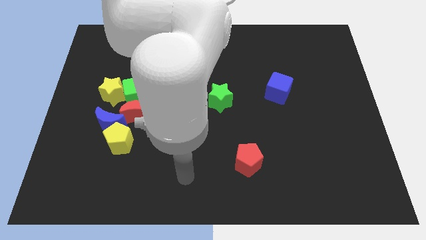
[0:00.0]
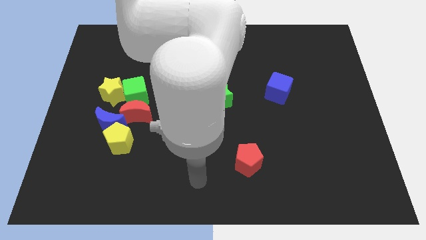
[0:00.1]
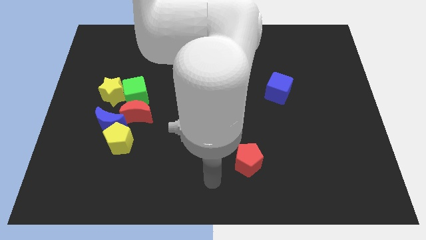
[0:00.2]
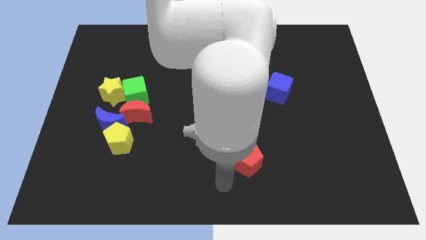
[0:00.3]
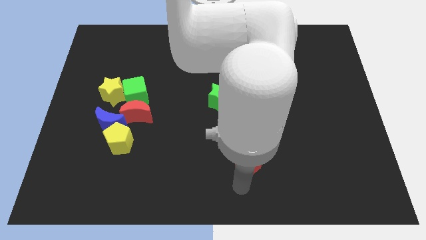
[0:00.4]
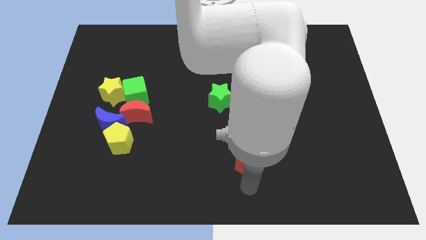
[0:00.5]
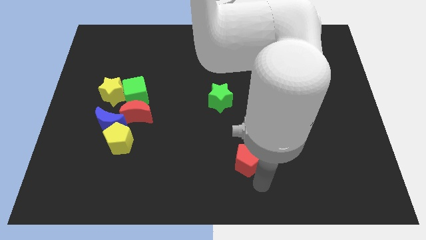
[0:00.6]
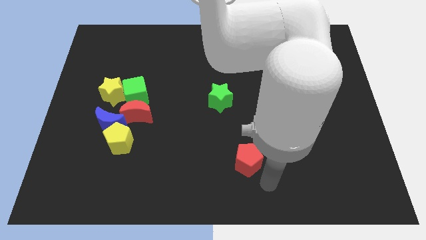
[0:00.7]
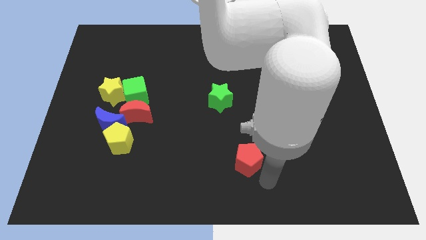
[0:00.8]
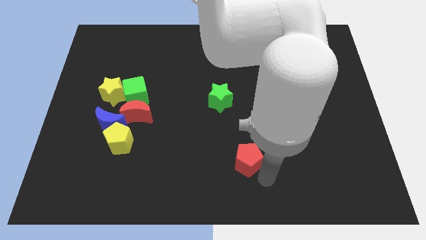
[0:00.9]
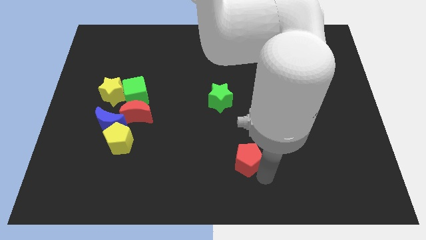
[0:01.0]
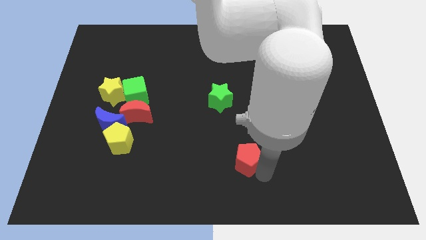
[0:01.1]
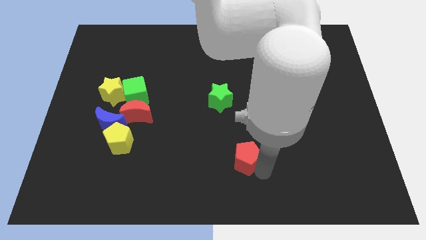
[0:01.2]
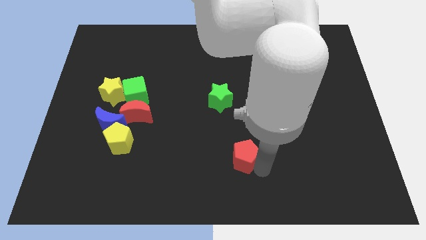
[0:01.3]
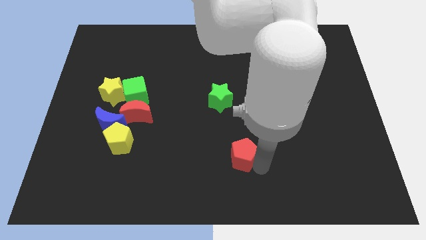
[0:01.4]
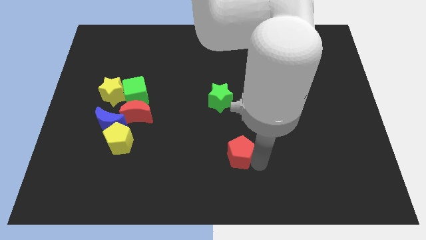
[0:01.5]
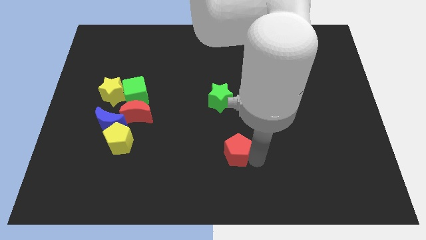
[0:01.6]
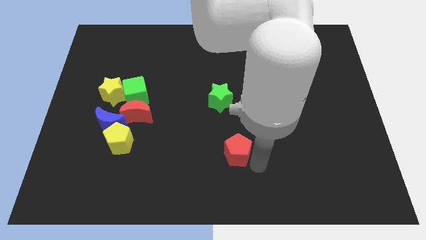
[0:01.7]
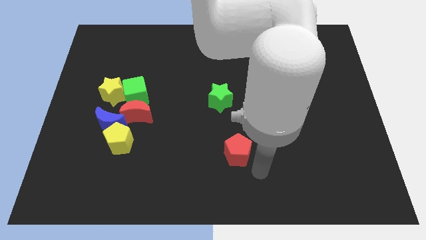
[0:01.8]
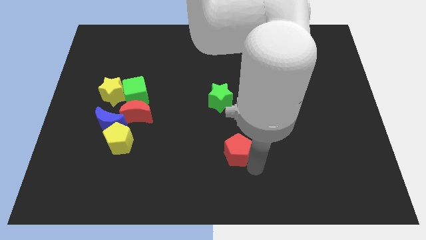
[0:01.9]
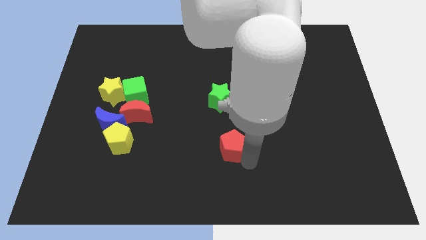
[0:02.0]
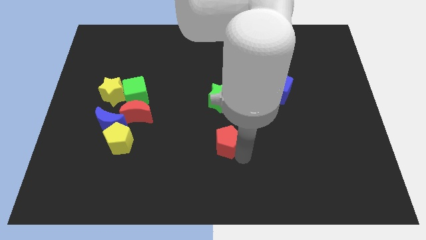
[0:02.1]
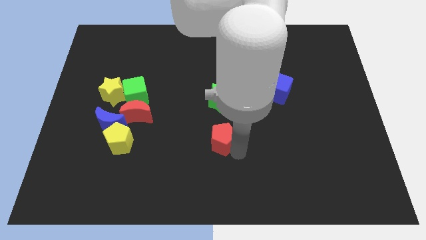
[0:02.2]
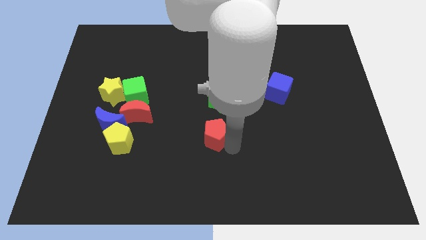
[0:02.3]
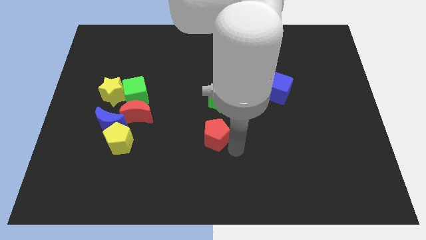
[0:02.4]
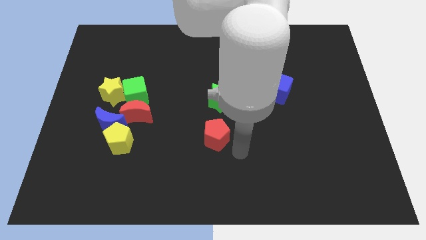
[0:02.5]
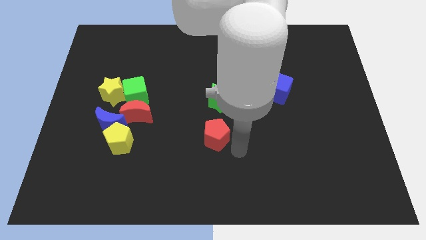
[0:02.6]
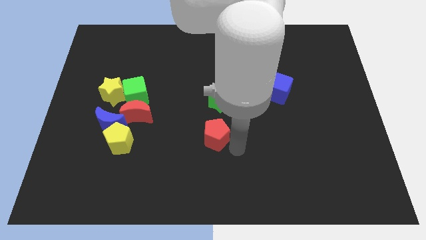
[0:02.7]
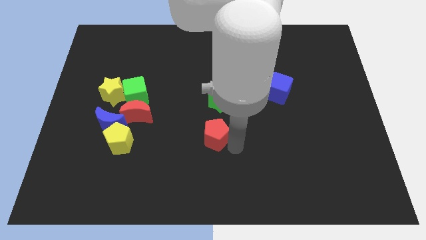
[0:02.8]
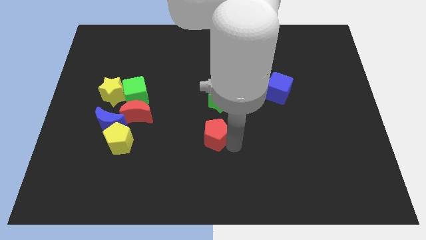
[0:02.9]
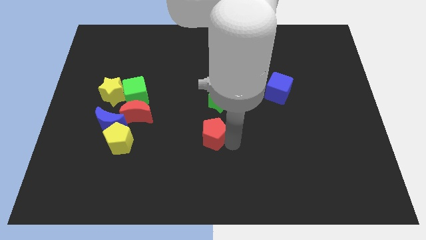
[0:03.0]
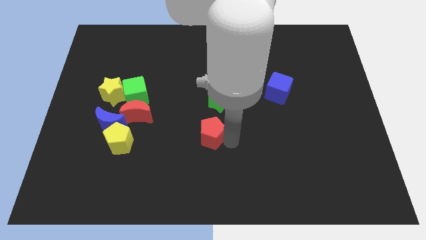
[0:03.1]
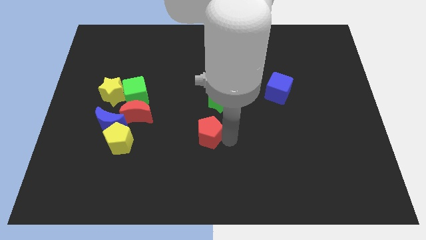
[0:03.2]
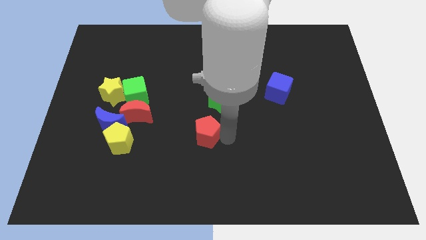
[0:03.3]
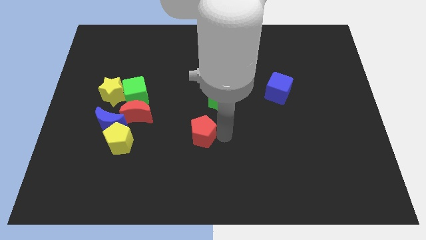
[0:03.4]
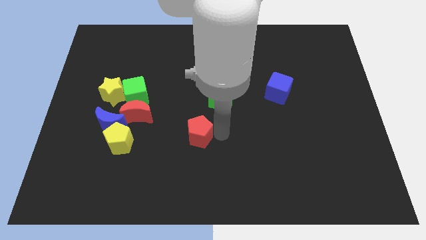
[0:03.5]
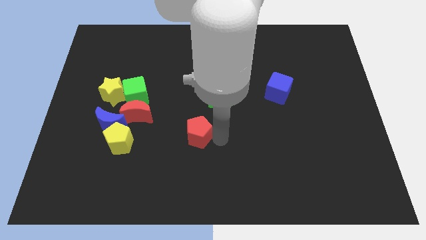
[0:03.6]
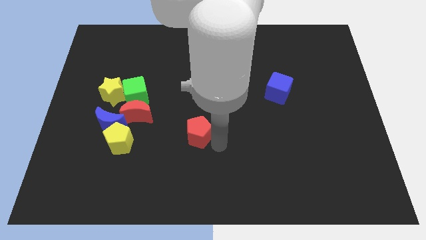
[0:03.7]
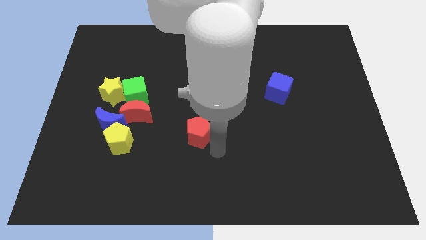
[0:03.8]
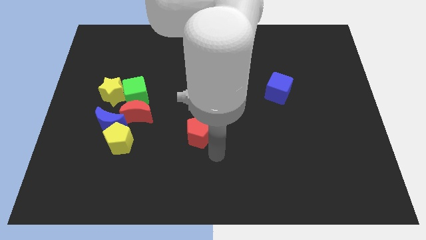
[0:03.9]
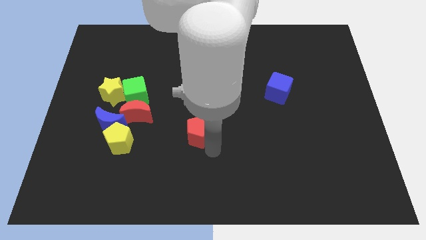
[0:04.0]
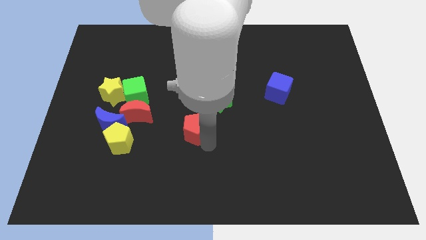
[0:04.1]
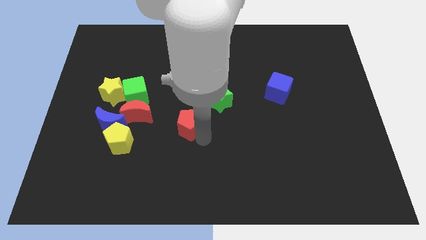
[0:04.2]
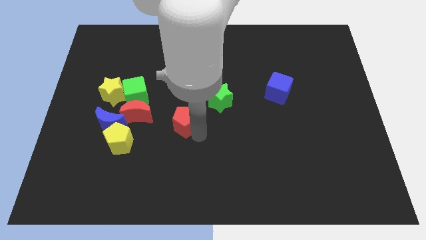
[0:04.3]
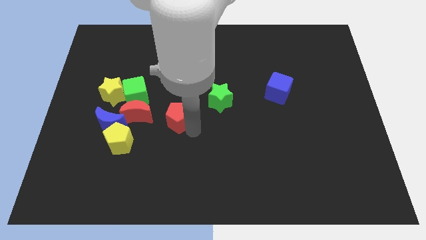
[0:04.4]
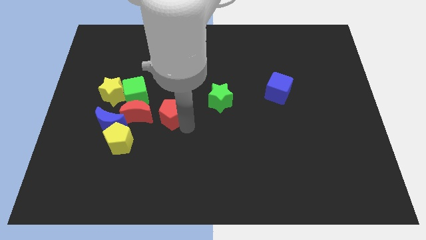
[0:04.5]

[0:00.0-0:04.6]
push the red pentagon diagonally upwards and to the left

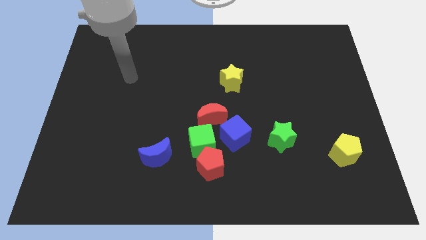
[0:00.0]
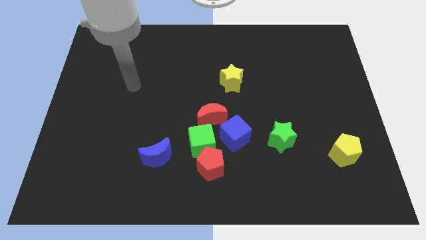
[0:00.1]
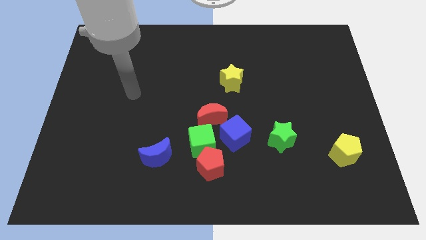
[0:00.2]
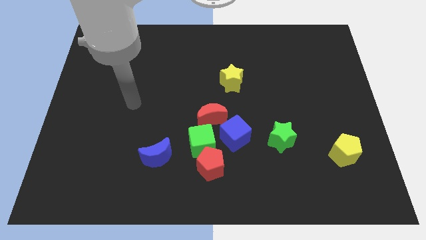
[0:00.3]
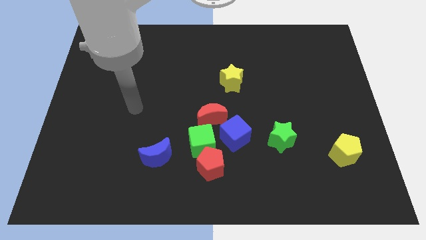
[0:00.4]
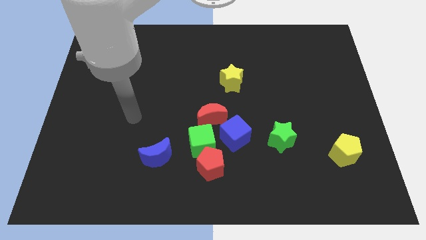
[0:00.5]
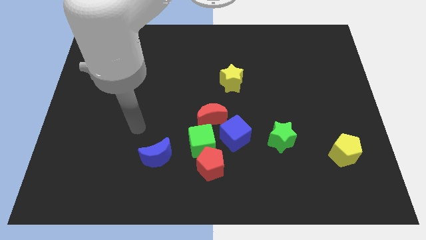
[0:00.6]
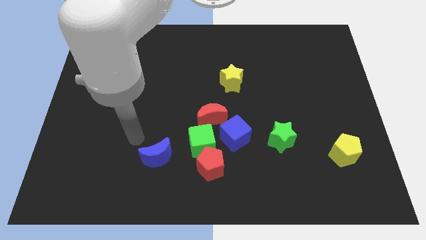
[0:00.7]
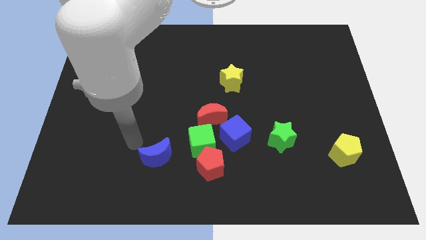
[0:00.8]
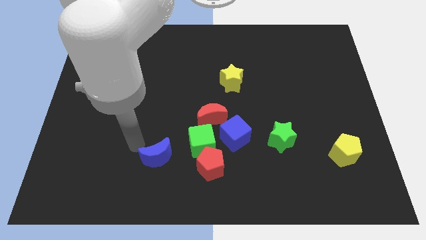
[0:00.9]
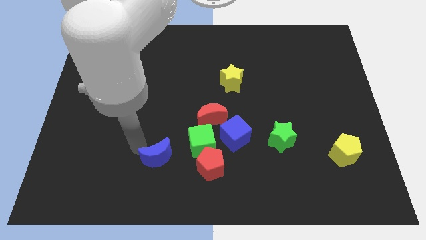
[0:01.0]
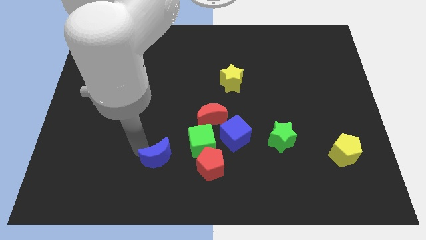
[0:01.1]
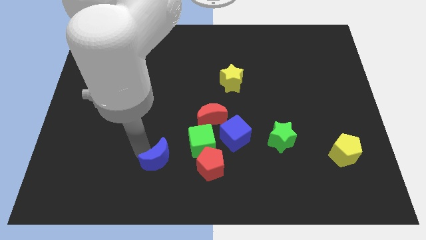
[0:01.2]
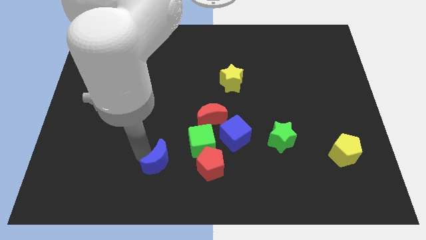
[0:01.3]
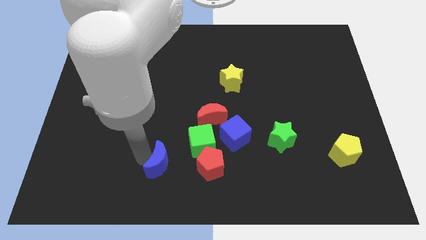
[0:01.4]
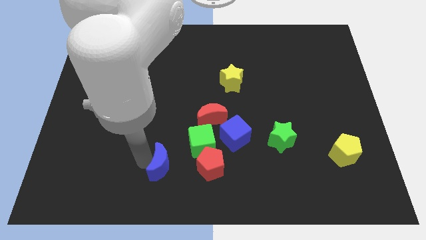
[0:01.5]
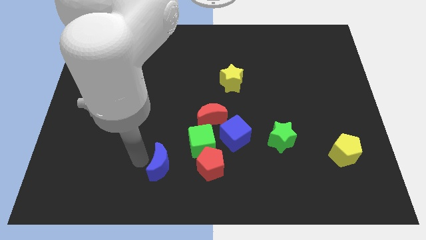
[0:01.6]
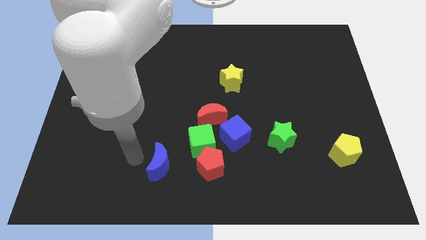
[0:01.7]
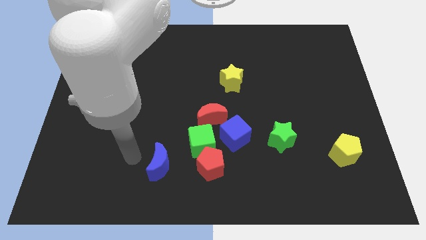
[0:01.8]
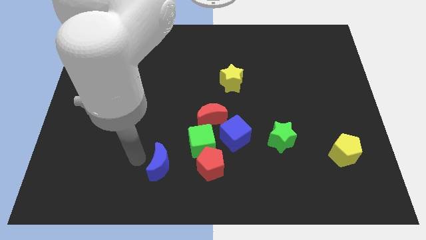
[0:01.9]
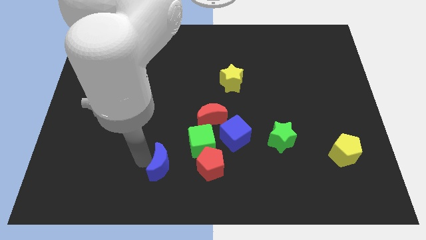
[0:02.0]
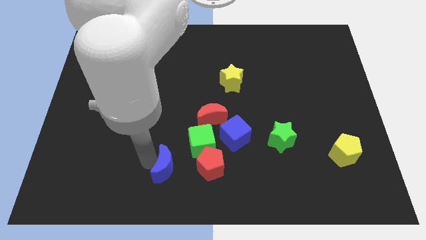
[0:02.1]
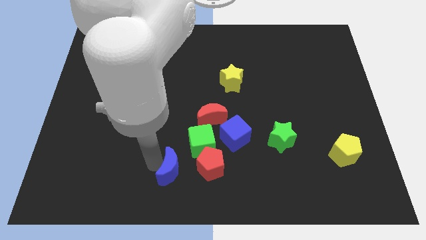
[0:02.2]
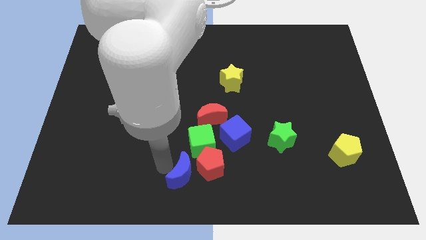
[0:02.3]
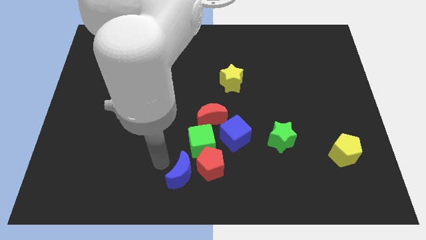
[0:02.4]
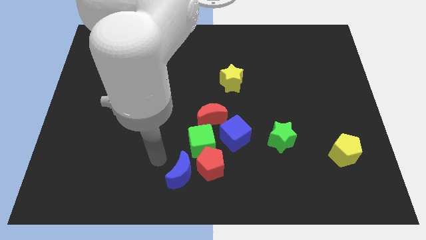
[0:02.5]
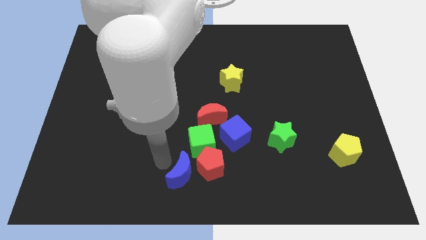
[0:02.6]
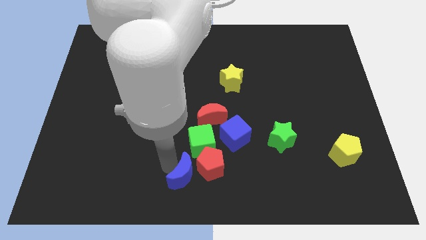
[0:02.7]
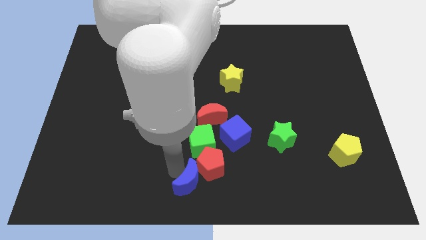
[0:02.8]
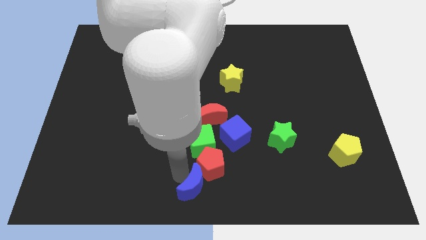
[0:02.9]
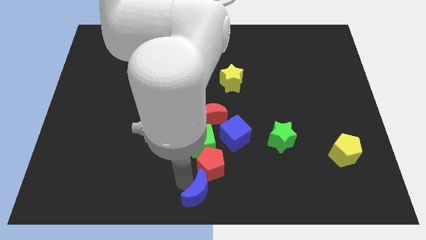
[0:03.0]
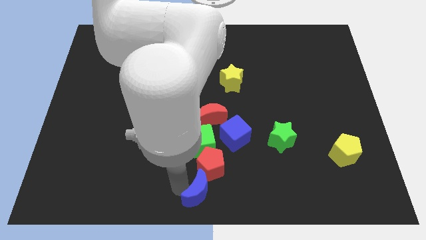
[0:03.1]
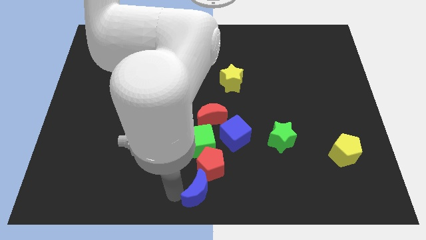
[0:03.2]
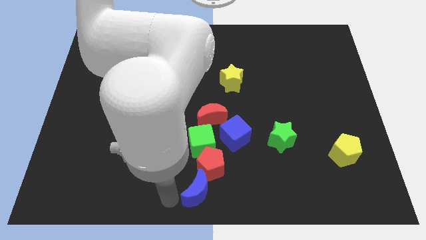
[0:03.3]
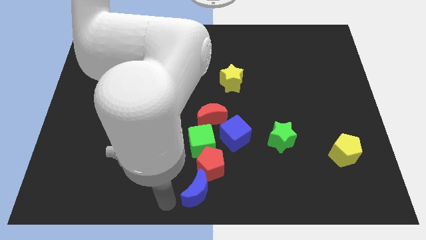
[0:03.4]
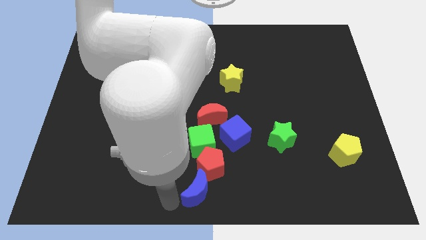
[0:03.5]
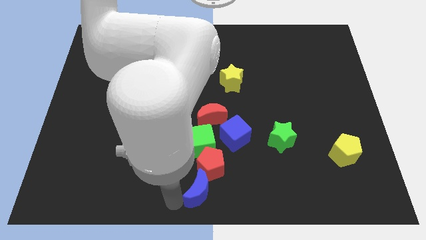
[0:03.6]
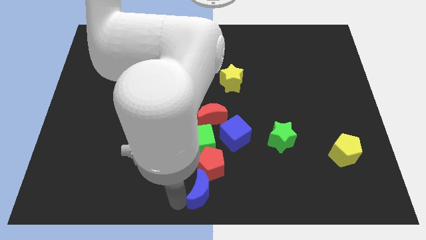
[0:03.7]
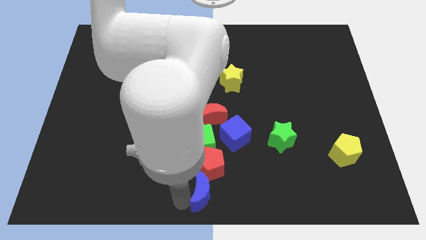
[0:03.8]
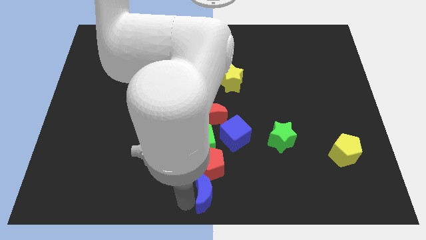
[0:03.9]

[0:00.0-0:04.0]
move the blue moon right a little
